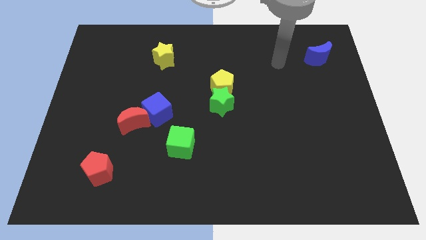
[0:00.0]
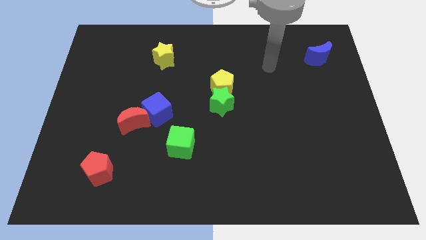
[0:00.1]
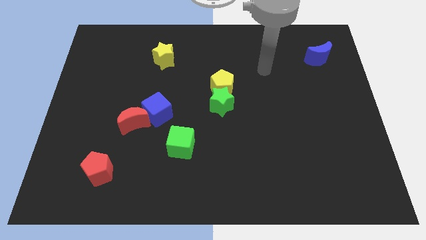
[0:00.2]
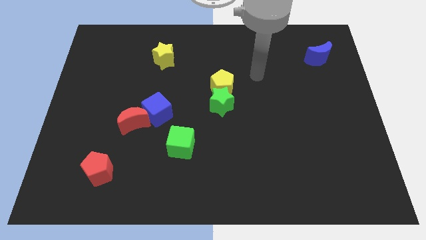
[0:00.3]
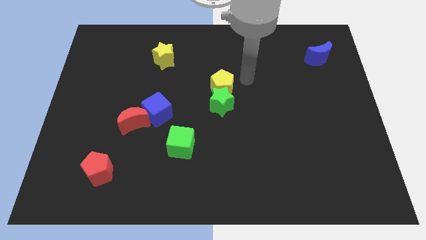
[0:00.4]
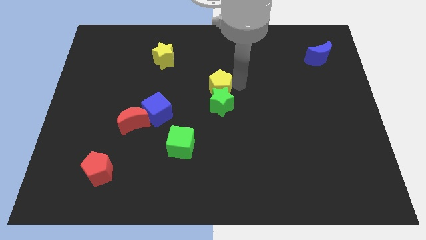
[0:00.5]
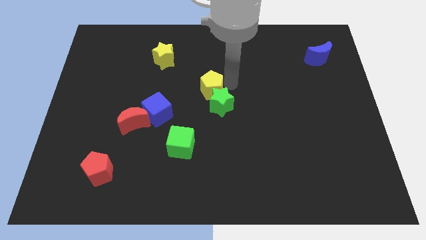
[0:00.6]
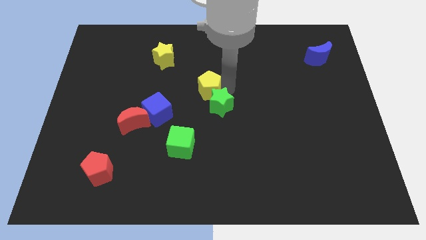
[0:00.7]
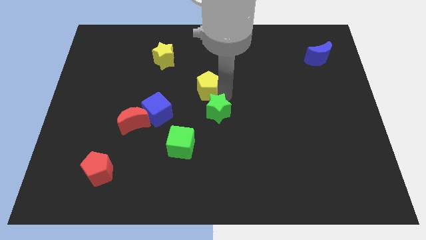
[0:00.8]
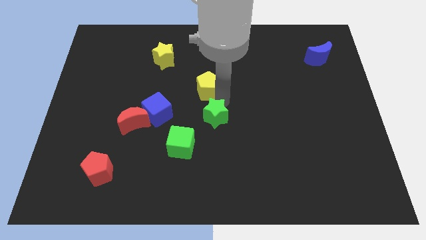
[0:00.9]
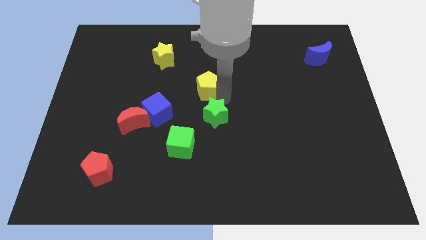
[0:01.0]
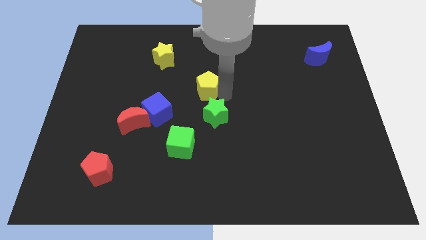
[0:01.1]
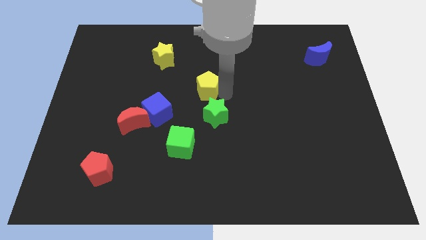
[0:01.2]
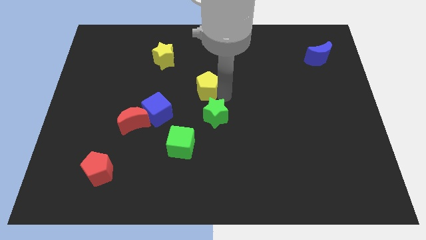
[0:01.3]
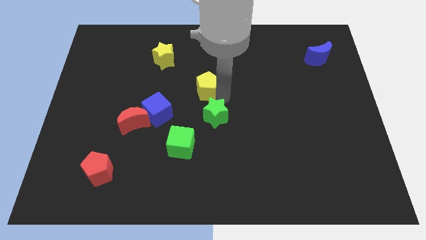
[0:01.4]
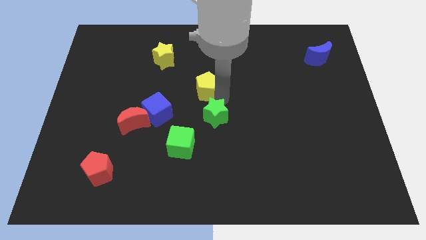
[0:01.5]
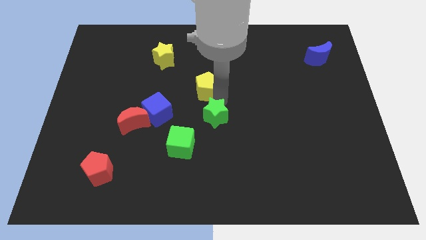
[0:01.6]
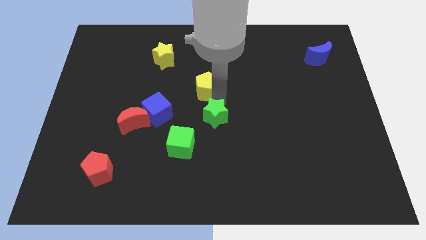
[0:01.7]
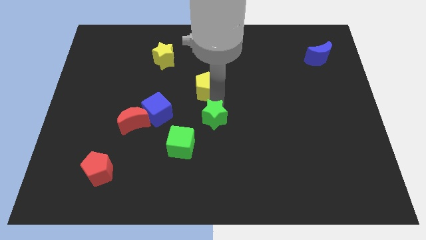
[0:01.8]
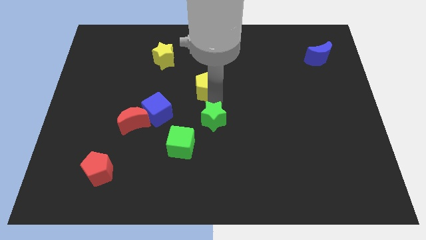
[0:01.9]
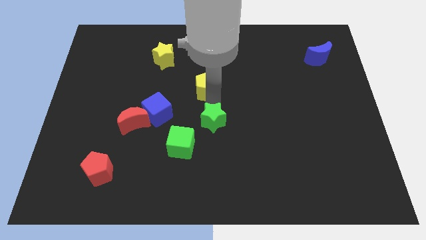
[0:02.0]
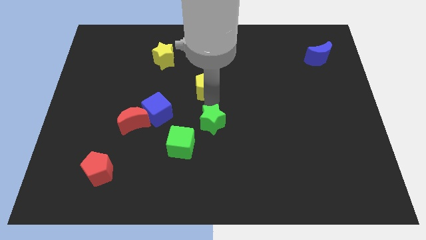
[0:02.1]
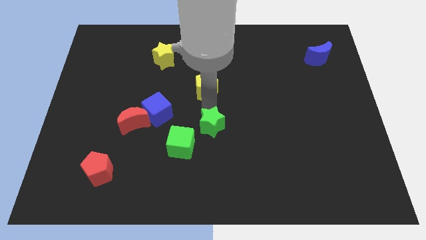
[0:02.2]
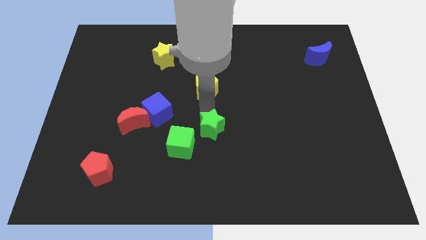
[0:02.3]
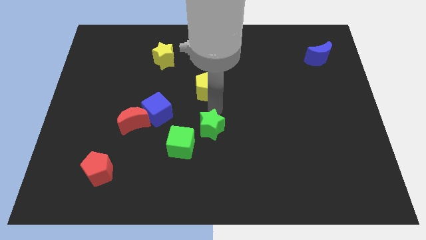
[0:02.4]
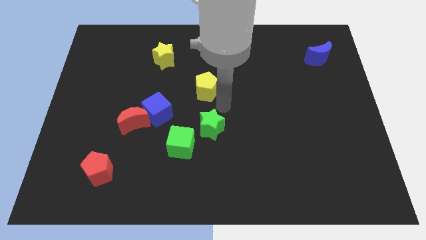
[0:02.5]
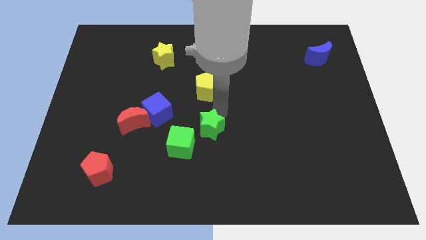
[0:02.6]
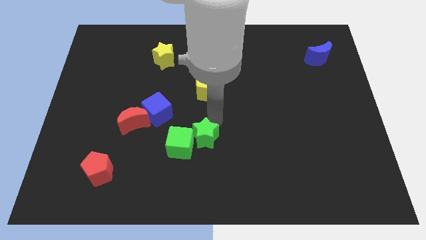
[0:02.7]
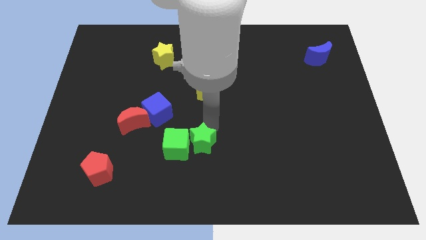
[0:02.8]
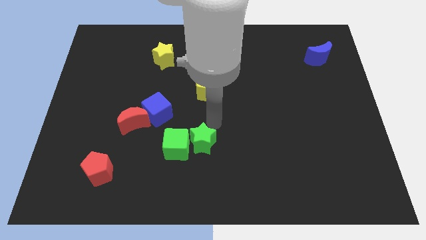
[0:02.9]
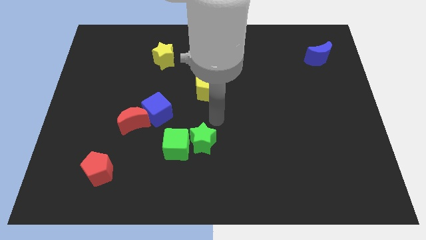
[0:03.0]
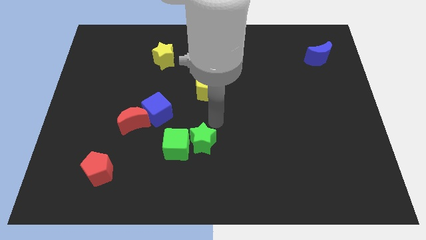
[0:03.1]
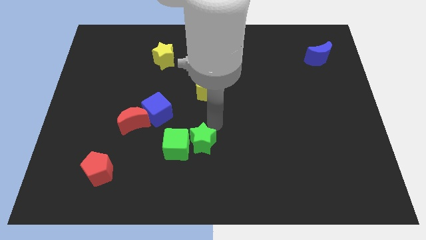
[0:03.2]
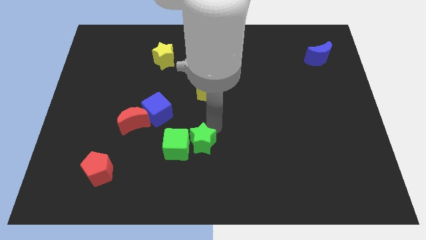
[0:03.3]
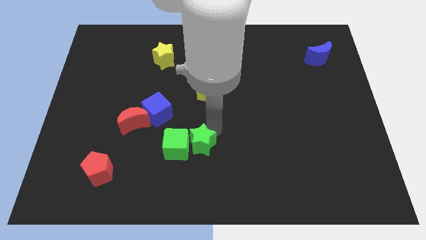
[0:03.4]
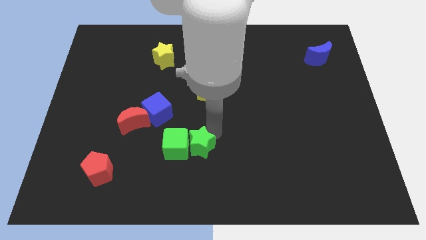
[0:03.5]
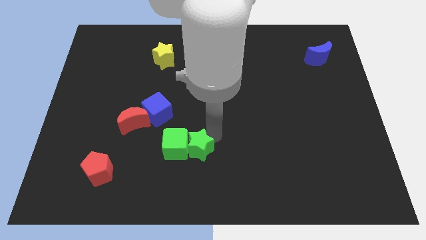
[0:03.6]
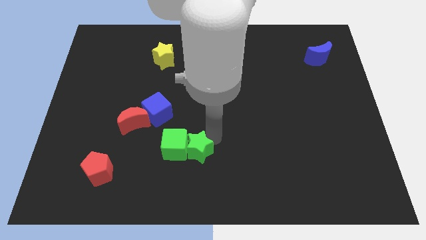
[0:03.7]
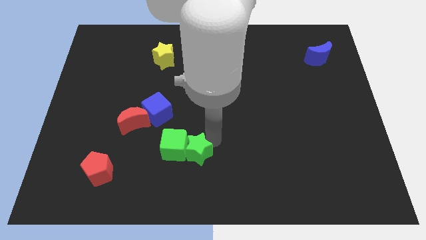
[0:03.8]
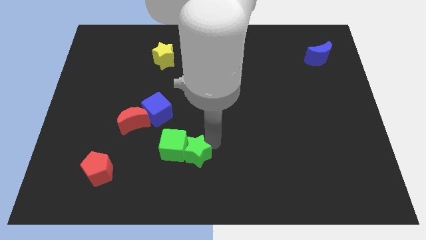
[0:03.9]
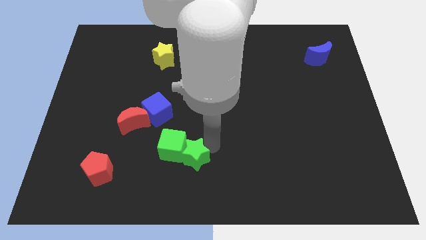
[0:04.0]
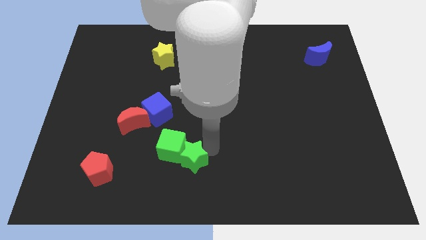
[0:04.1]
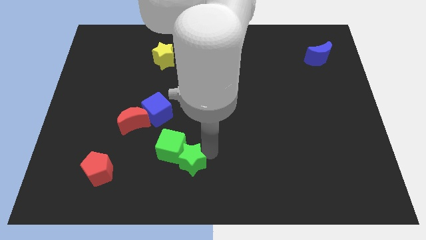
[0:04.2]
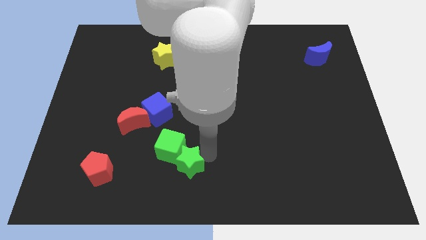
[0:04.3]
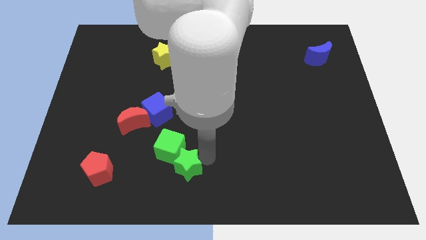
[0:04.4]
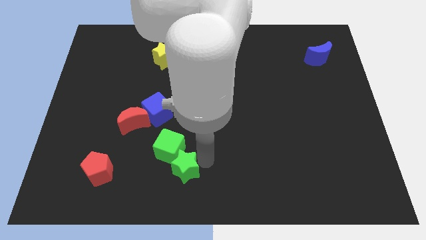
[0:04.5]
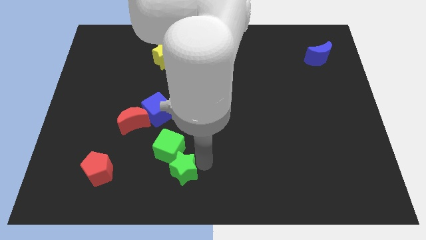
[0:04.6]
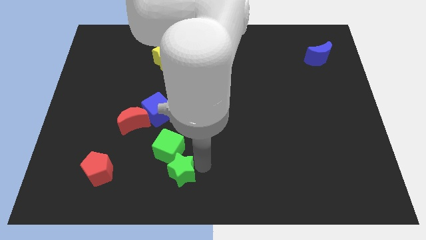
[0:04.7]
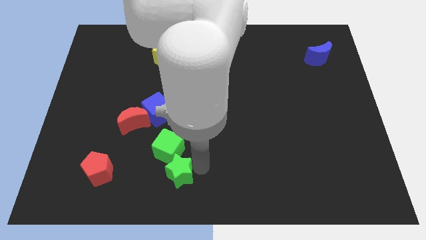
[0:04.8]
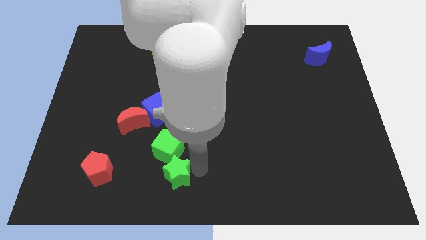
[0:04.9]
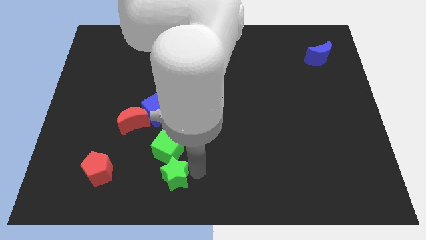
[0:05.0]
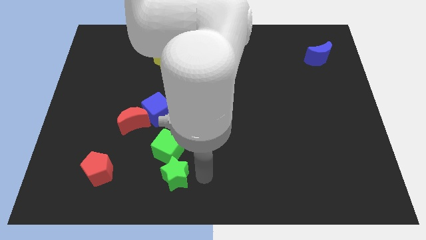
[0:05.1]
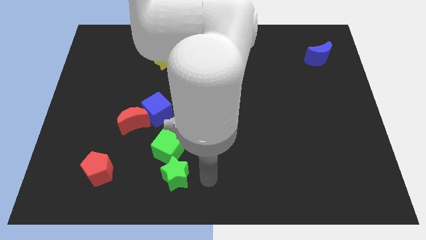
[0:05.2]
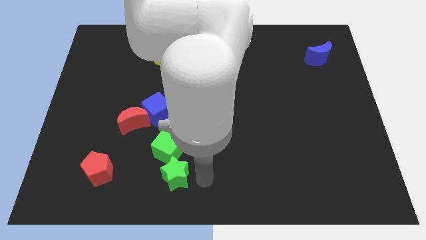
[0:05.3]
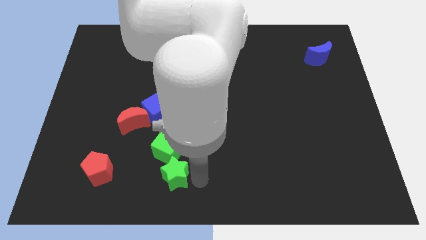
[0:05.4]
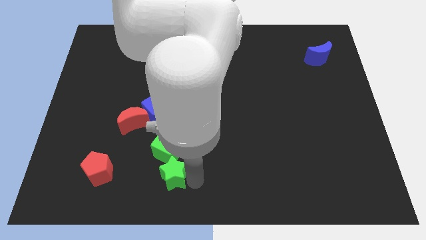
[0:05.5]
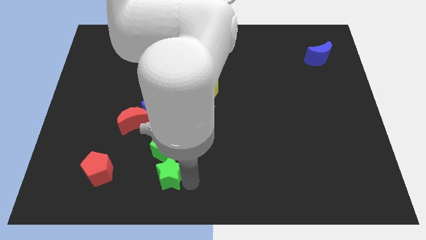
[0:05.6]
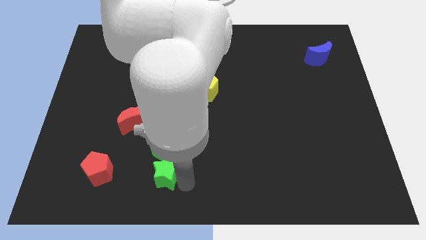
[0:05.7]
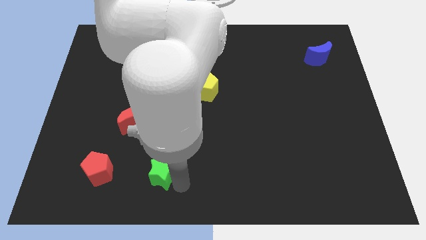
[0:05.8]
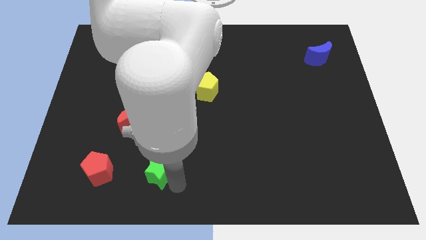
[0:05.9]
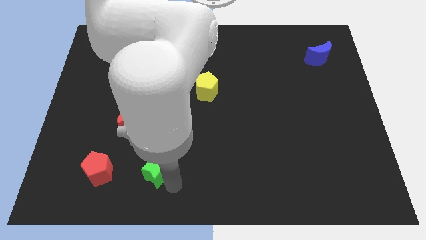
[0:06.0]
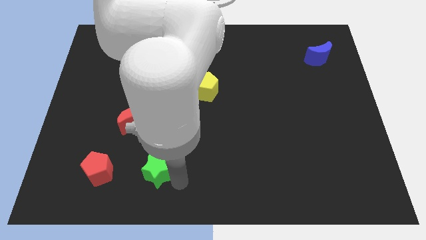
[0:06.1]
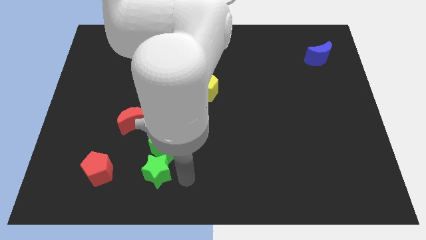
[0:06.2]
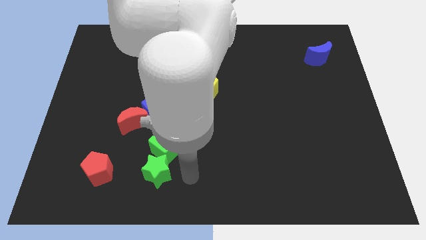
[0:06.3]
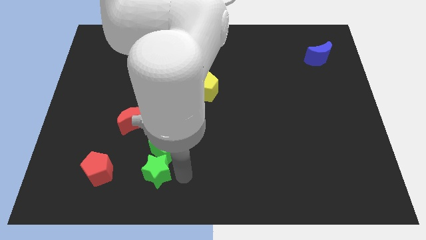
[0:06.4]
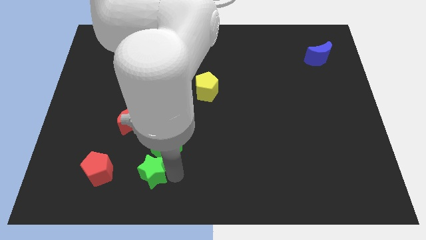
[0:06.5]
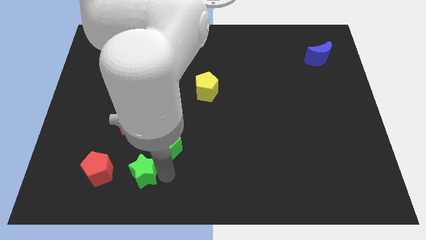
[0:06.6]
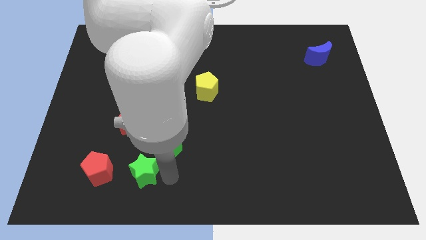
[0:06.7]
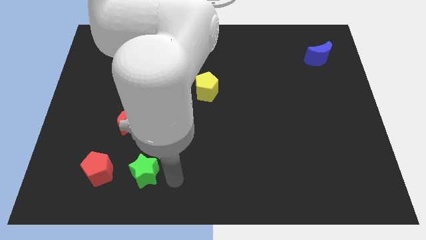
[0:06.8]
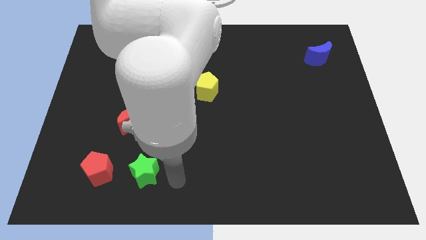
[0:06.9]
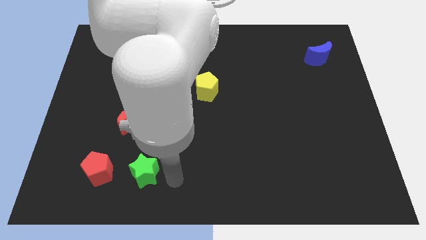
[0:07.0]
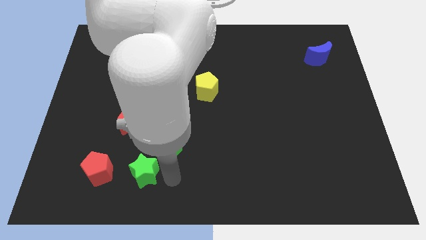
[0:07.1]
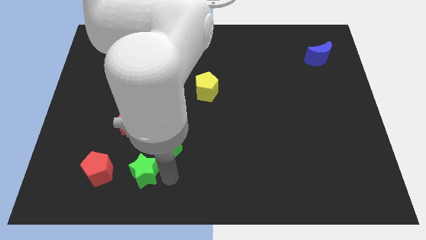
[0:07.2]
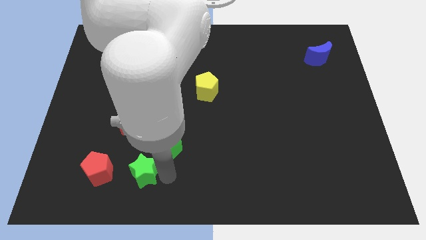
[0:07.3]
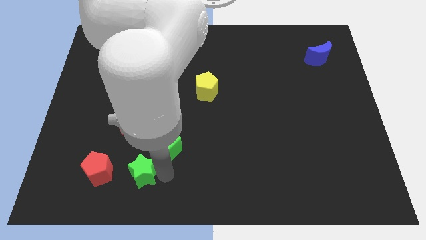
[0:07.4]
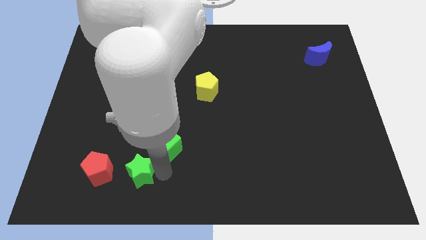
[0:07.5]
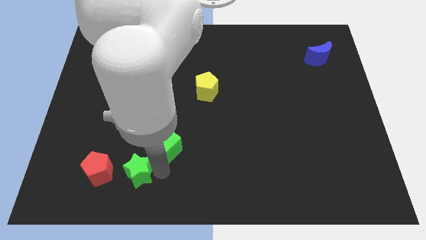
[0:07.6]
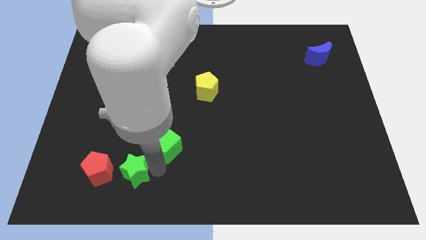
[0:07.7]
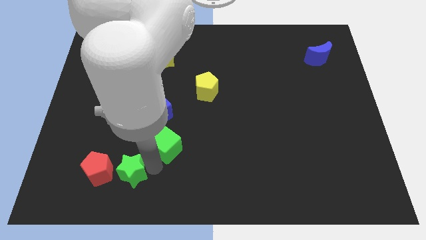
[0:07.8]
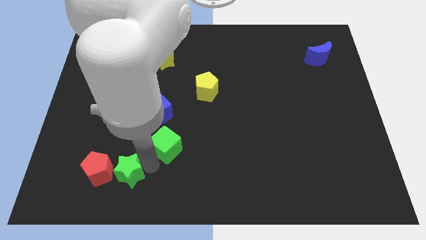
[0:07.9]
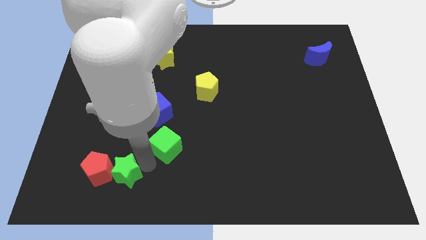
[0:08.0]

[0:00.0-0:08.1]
move the green star towards the red pentagon
